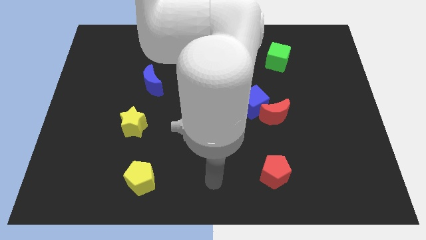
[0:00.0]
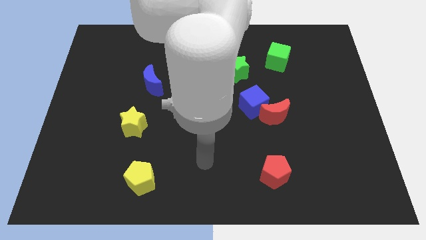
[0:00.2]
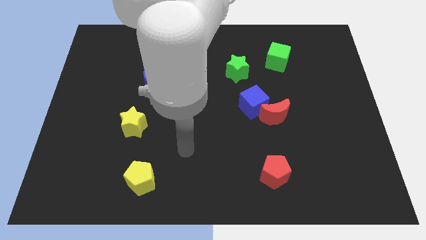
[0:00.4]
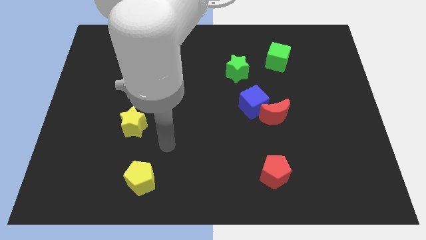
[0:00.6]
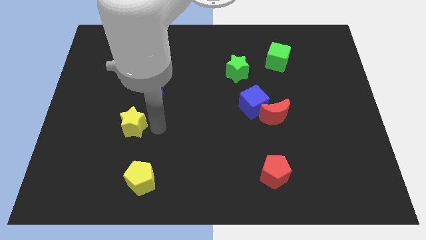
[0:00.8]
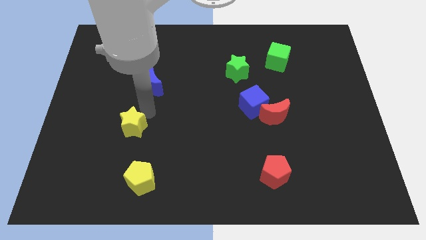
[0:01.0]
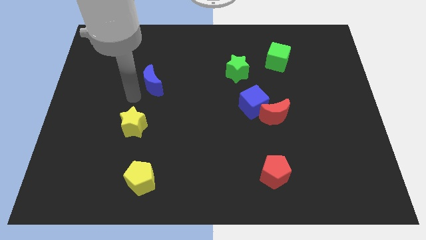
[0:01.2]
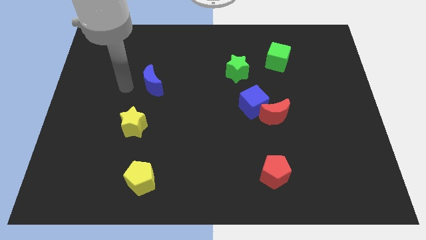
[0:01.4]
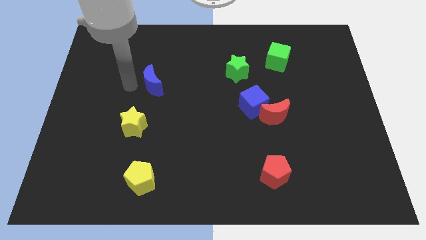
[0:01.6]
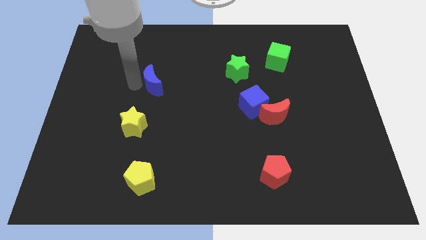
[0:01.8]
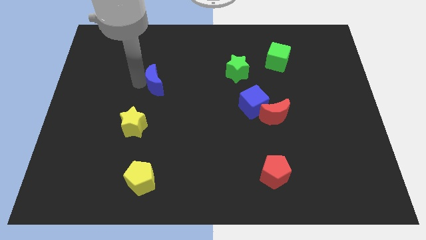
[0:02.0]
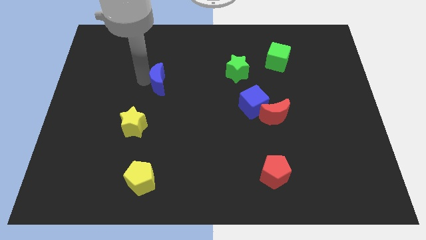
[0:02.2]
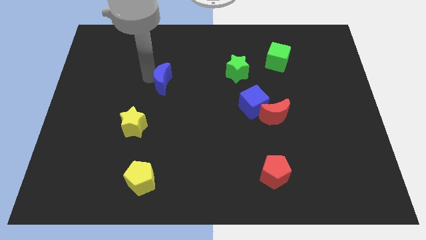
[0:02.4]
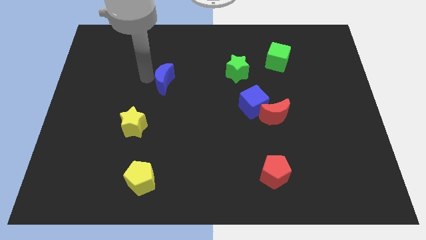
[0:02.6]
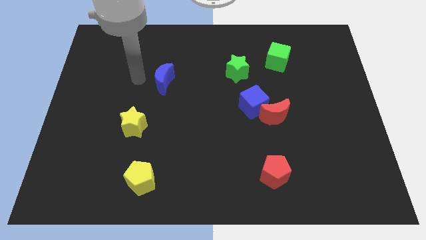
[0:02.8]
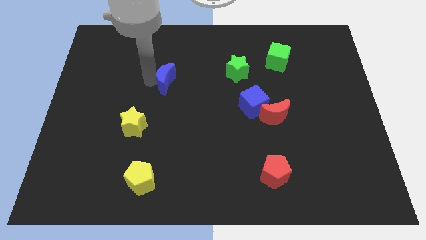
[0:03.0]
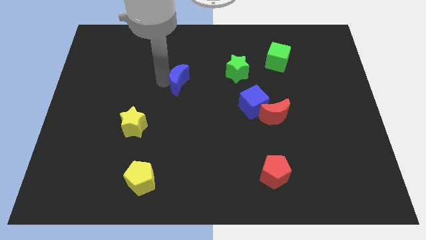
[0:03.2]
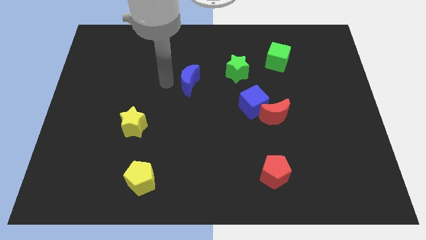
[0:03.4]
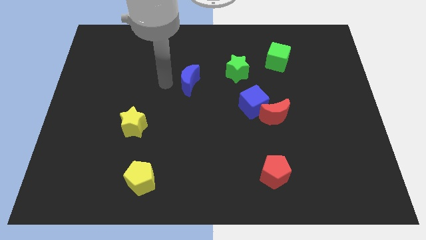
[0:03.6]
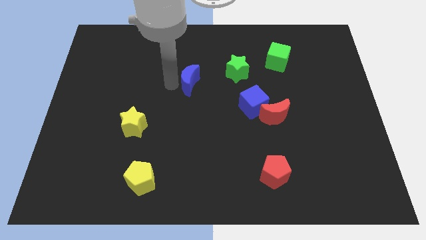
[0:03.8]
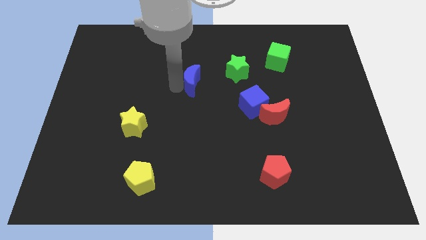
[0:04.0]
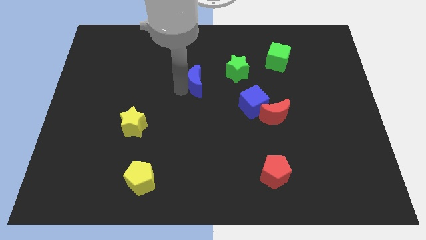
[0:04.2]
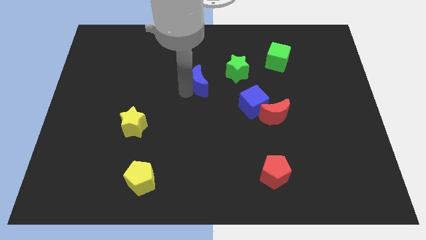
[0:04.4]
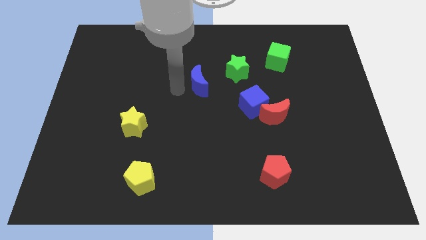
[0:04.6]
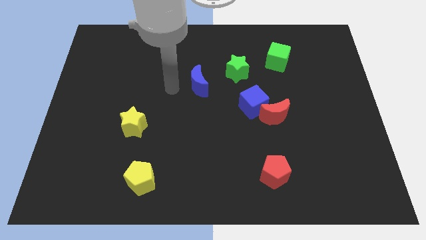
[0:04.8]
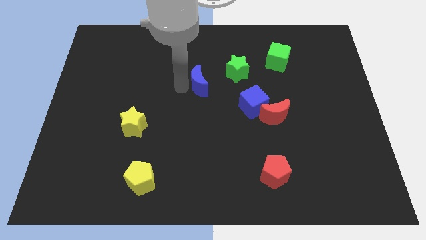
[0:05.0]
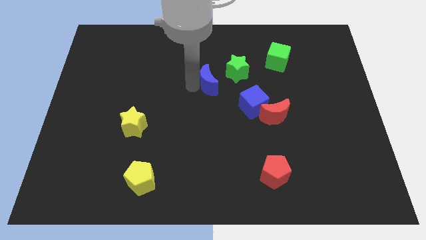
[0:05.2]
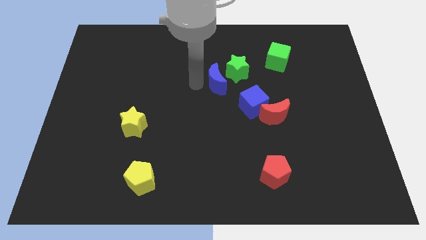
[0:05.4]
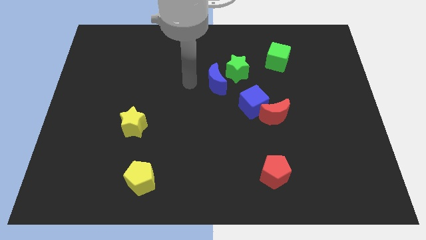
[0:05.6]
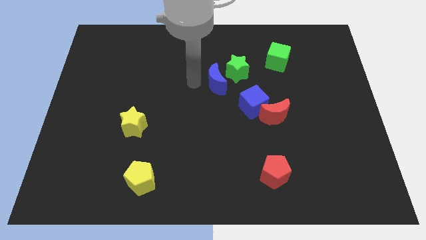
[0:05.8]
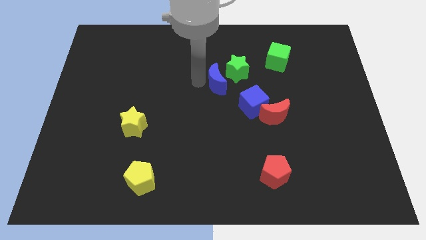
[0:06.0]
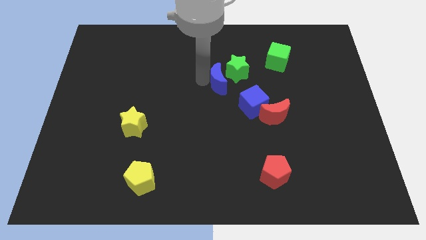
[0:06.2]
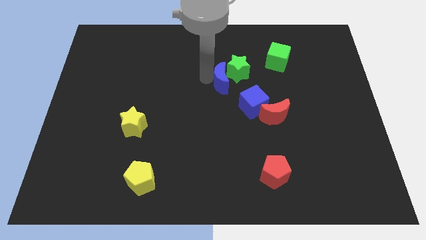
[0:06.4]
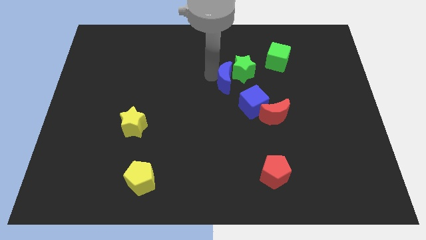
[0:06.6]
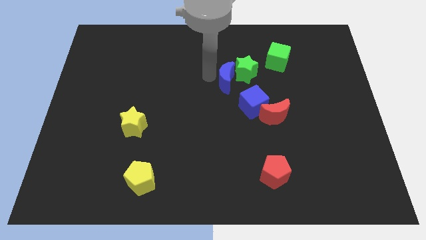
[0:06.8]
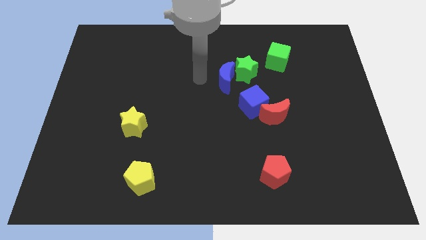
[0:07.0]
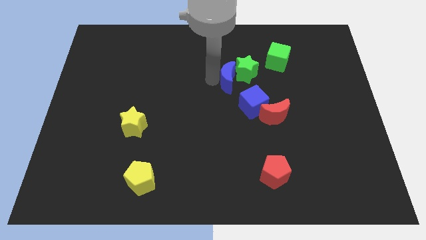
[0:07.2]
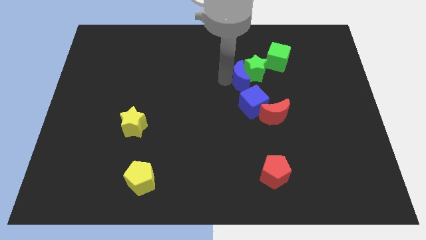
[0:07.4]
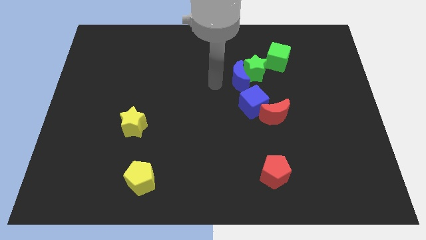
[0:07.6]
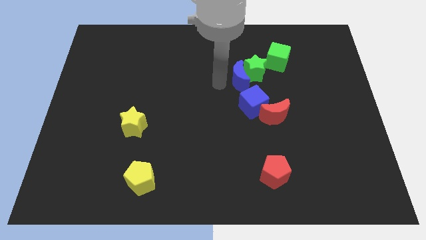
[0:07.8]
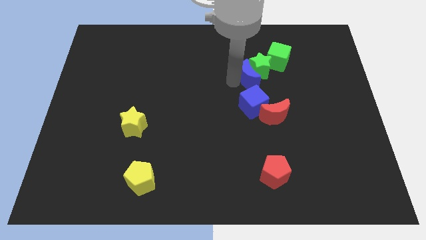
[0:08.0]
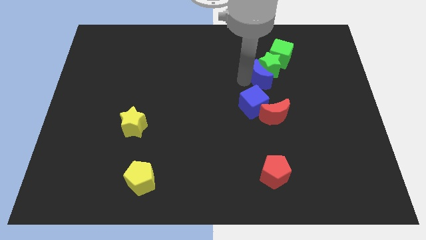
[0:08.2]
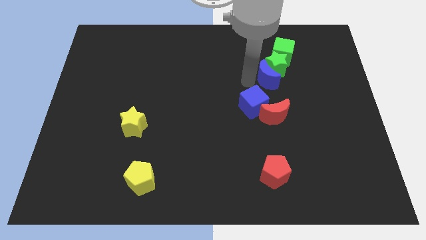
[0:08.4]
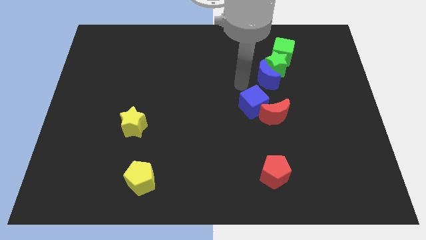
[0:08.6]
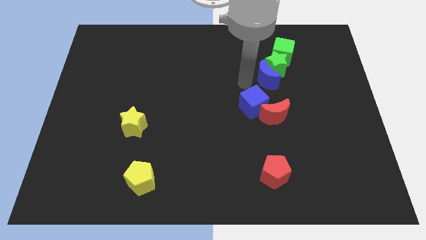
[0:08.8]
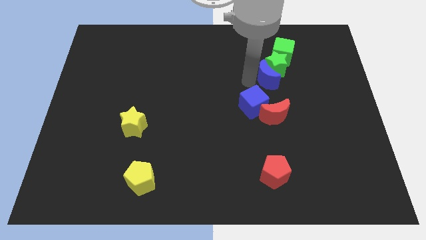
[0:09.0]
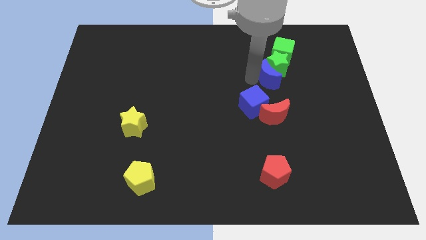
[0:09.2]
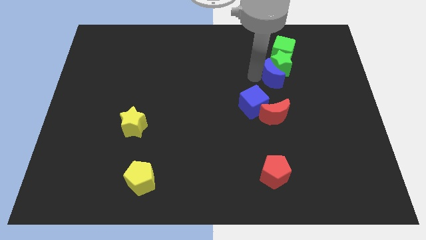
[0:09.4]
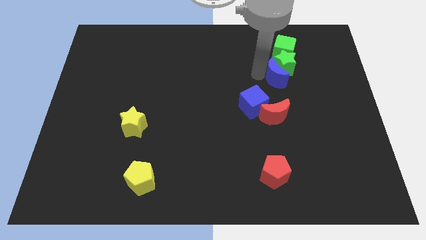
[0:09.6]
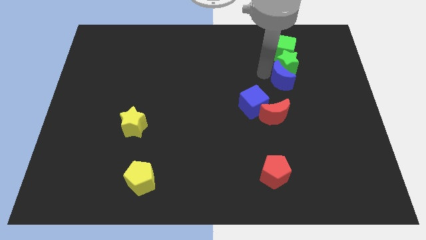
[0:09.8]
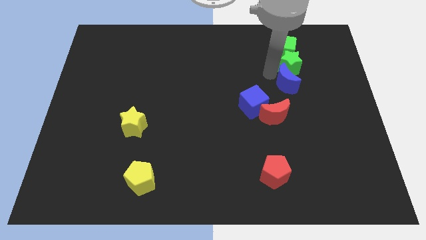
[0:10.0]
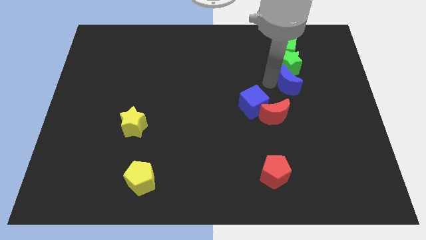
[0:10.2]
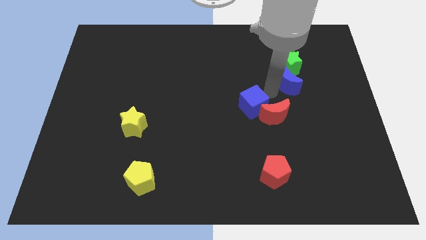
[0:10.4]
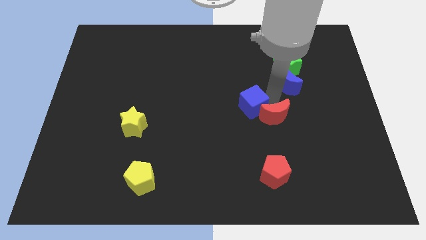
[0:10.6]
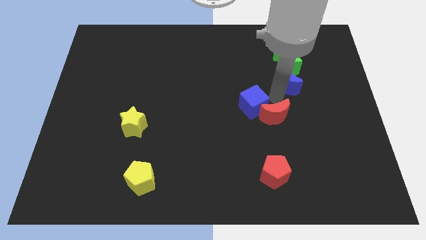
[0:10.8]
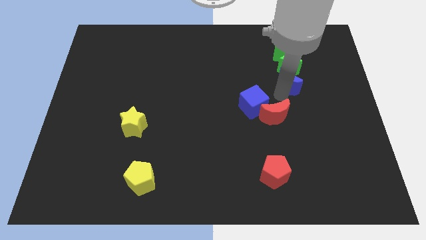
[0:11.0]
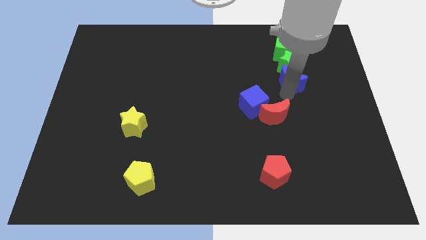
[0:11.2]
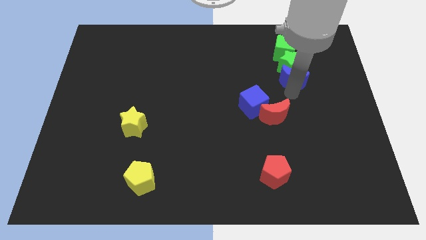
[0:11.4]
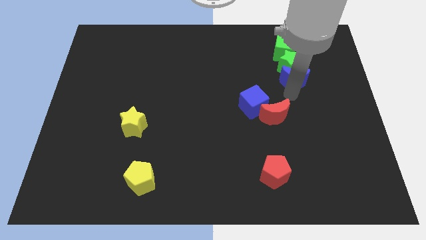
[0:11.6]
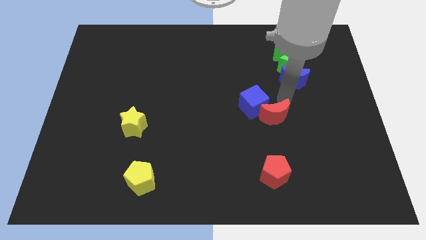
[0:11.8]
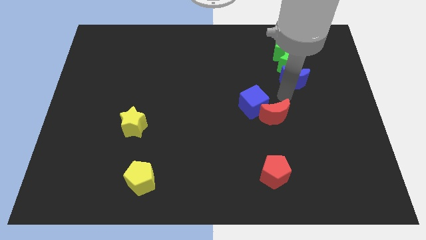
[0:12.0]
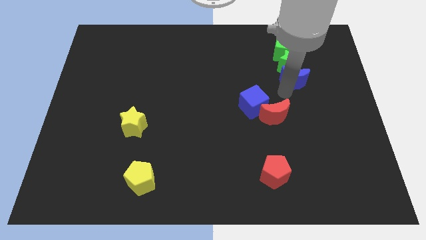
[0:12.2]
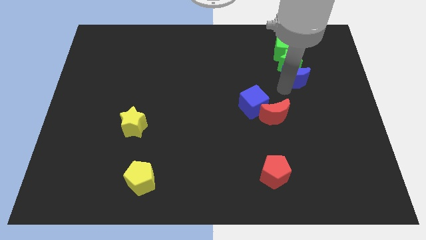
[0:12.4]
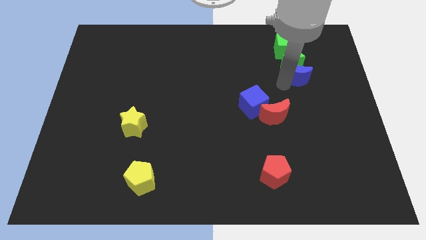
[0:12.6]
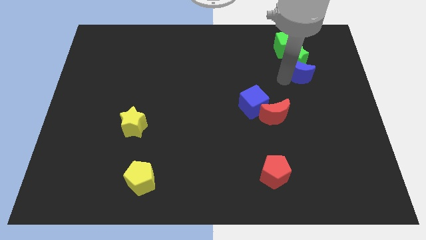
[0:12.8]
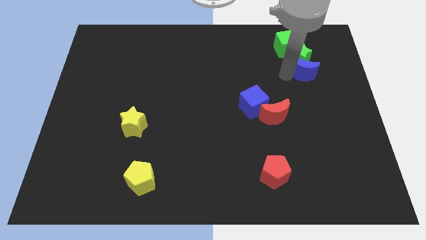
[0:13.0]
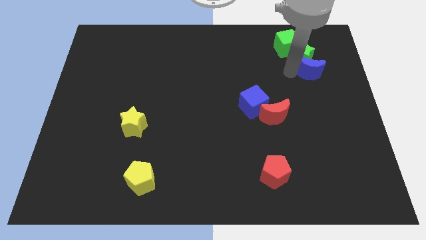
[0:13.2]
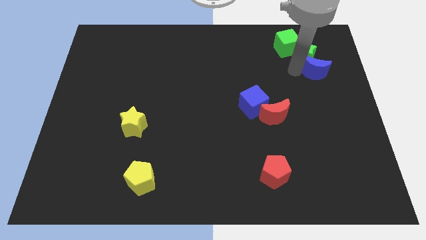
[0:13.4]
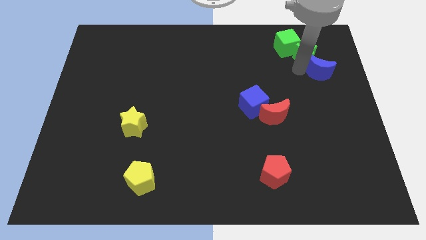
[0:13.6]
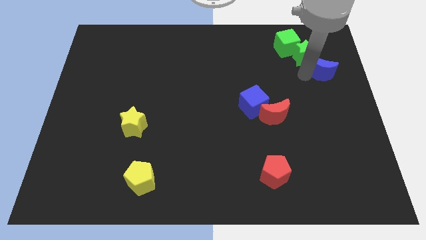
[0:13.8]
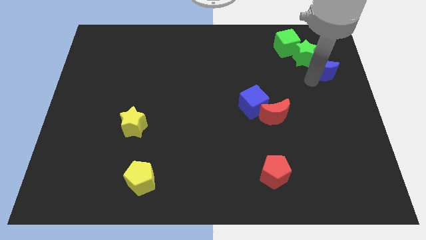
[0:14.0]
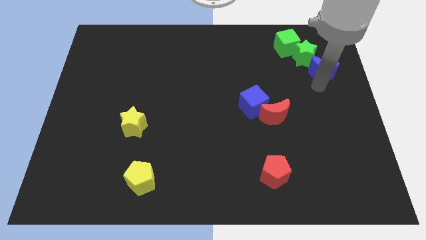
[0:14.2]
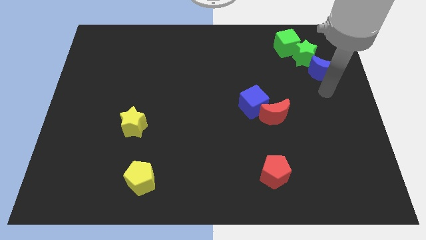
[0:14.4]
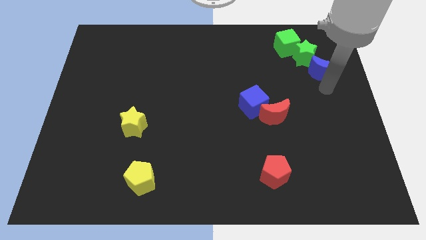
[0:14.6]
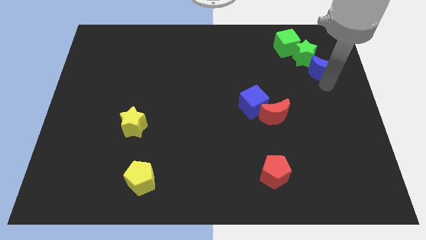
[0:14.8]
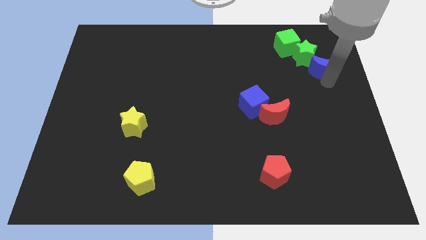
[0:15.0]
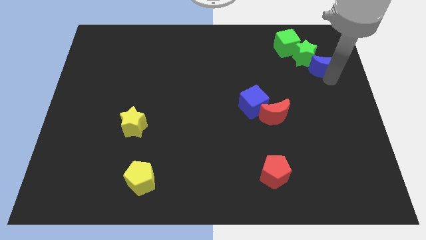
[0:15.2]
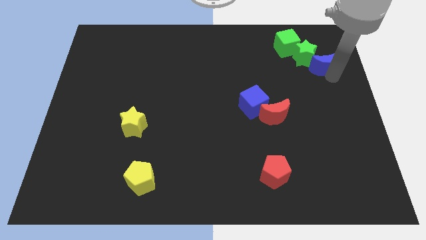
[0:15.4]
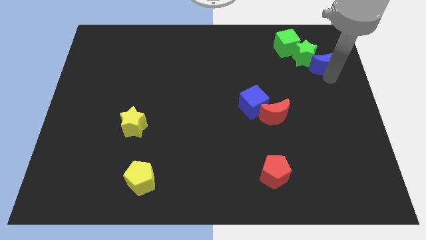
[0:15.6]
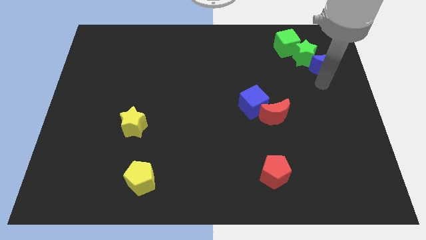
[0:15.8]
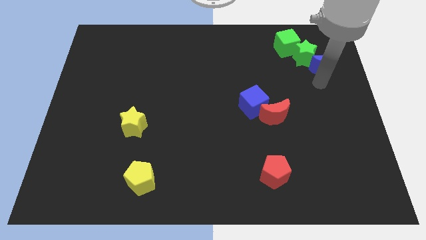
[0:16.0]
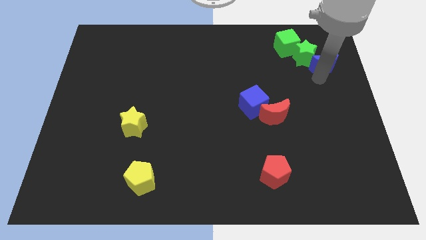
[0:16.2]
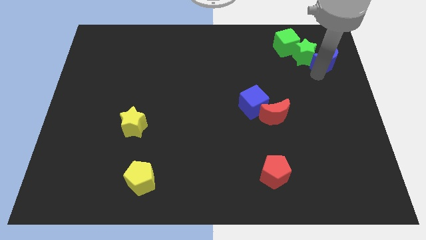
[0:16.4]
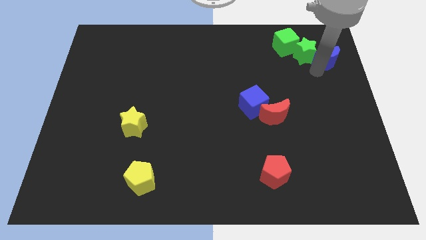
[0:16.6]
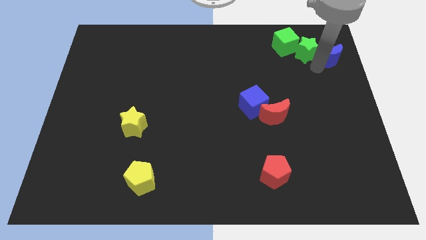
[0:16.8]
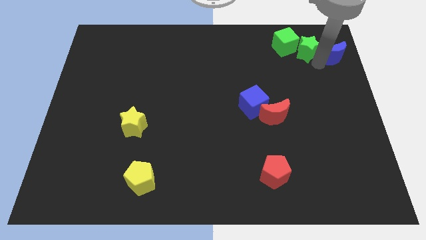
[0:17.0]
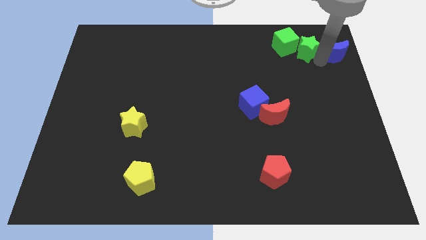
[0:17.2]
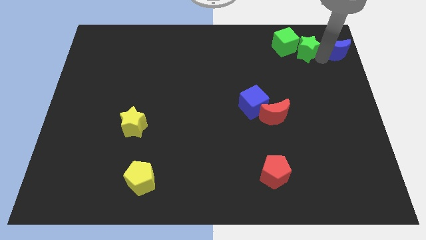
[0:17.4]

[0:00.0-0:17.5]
push the blue moon to the upper right corner
